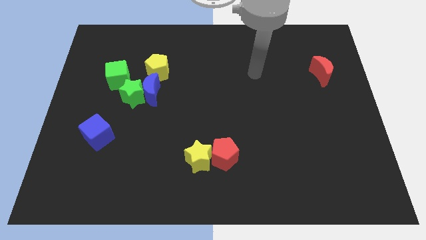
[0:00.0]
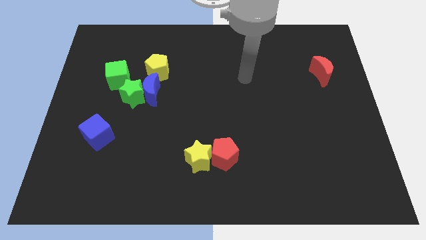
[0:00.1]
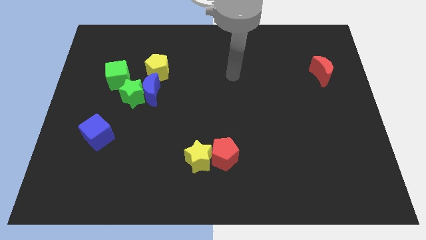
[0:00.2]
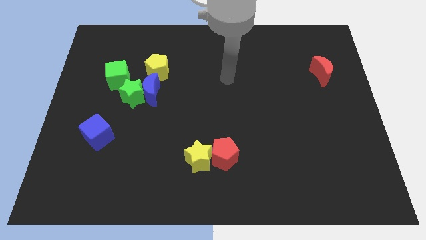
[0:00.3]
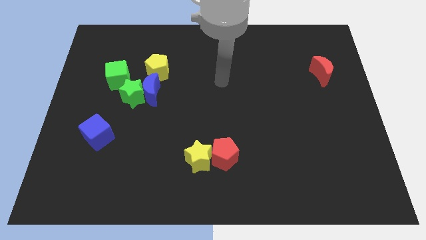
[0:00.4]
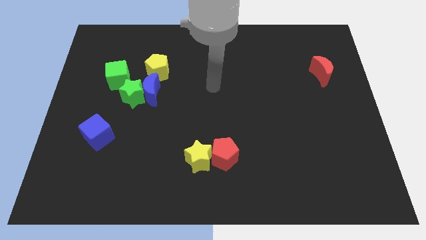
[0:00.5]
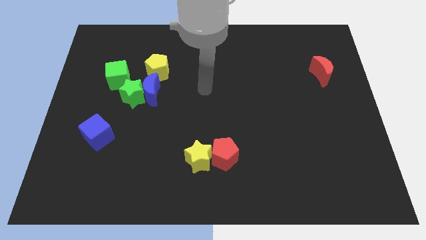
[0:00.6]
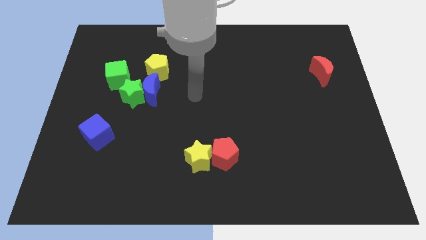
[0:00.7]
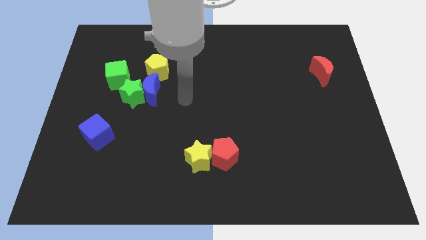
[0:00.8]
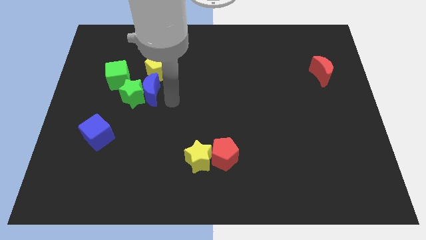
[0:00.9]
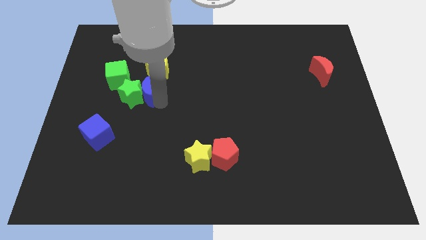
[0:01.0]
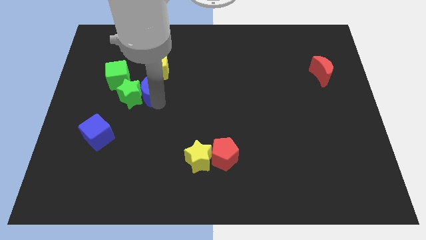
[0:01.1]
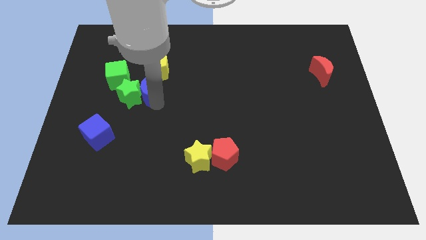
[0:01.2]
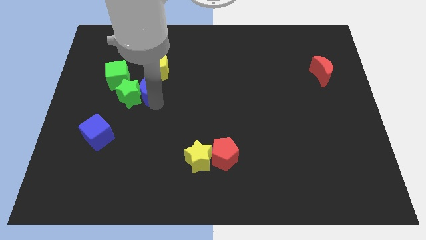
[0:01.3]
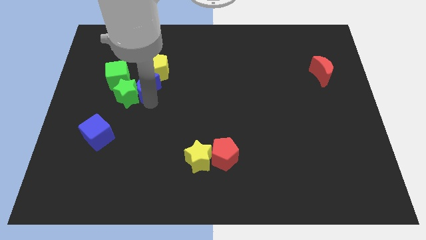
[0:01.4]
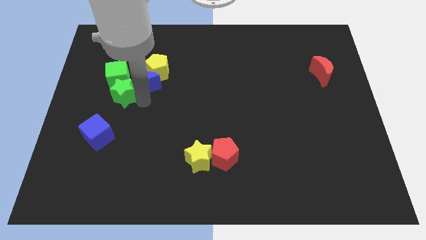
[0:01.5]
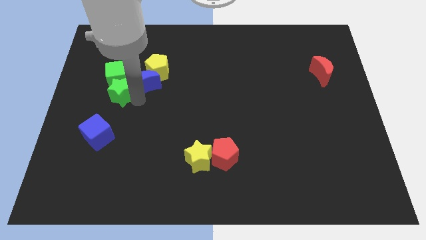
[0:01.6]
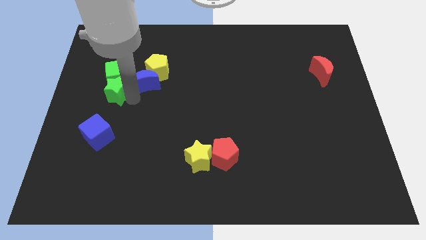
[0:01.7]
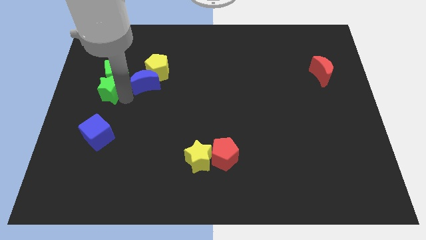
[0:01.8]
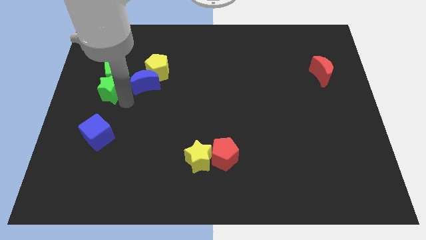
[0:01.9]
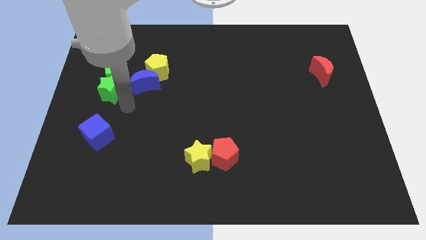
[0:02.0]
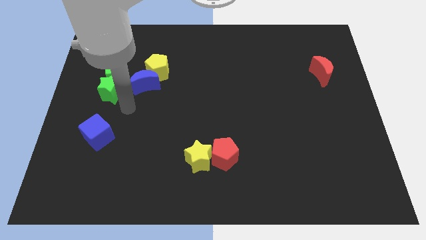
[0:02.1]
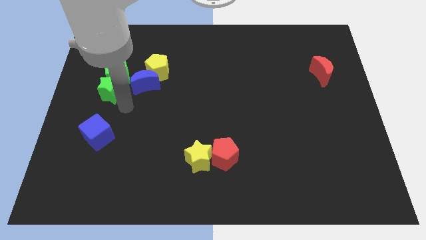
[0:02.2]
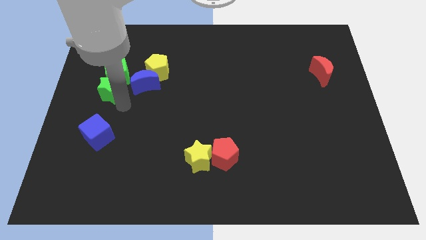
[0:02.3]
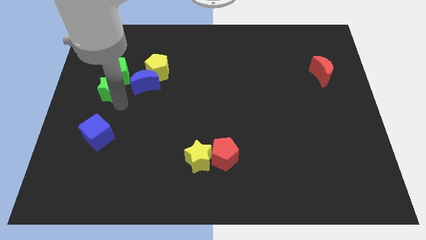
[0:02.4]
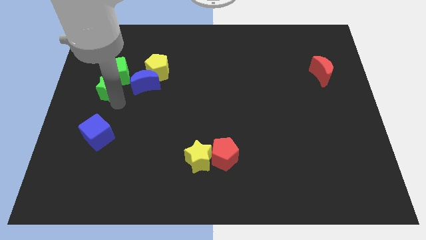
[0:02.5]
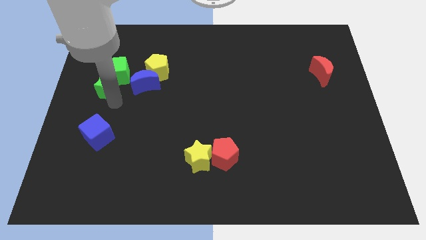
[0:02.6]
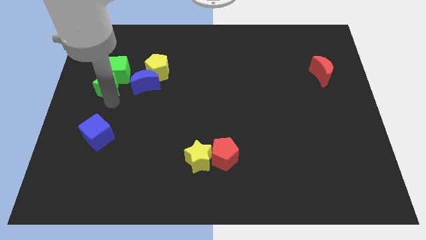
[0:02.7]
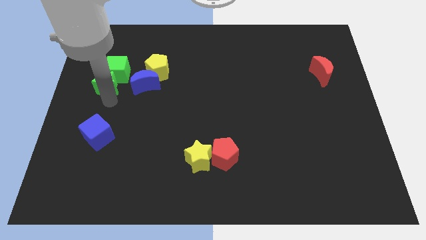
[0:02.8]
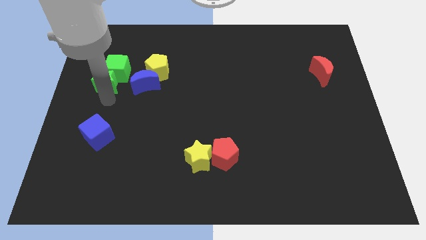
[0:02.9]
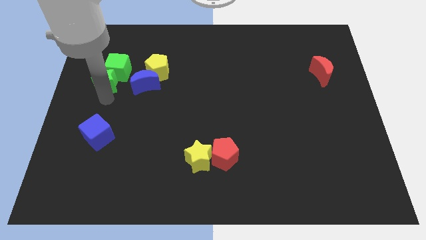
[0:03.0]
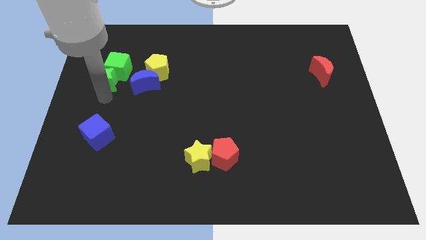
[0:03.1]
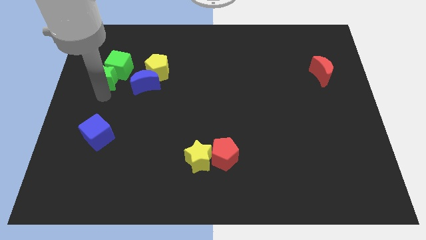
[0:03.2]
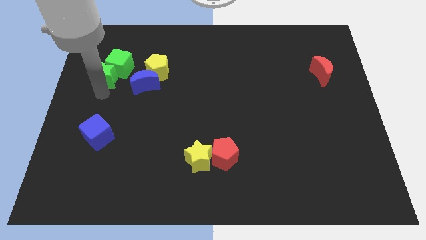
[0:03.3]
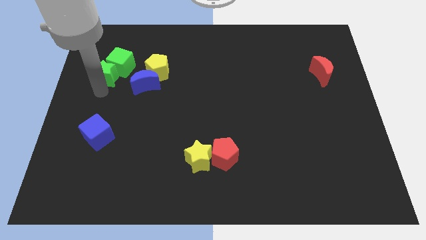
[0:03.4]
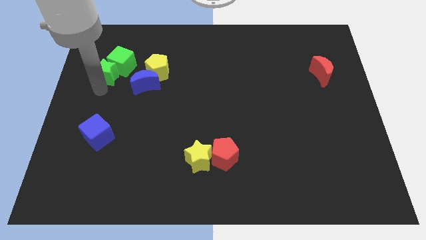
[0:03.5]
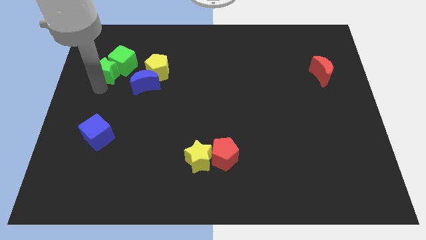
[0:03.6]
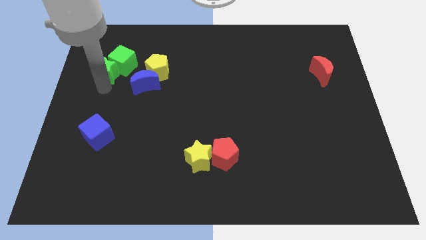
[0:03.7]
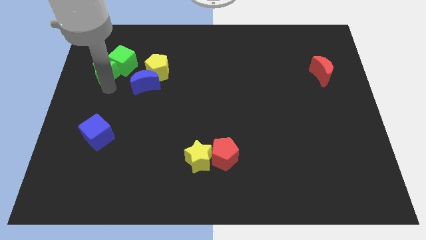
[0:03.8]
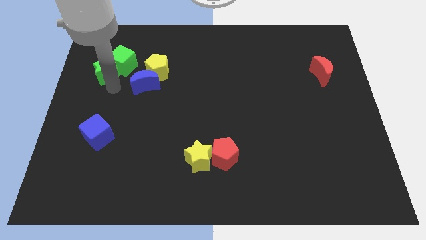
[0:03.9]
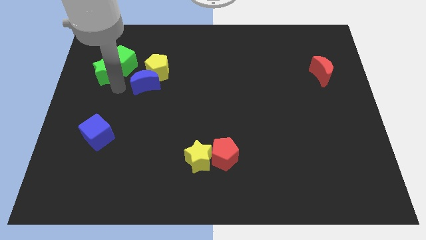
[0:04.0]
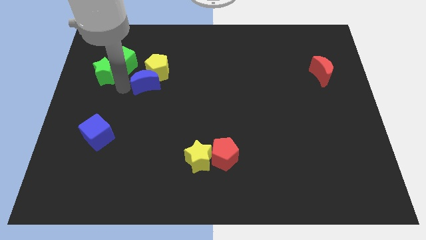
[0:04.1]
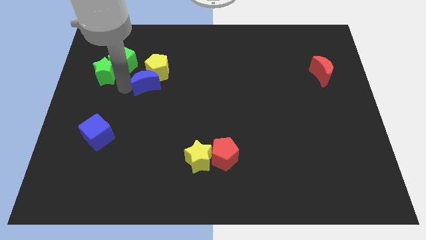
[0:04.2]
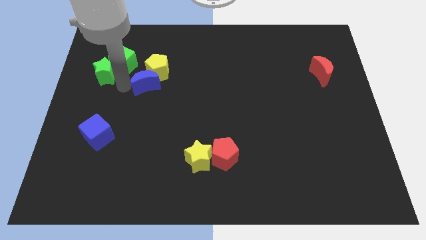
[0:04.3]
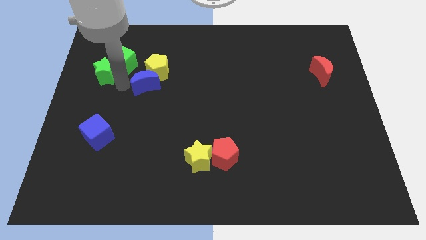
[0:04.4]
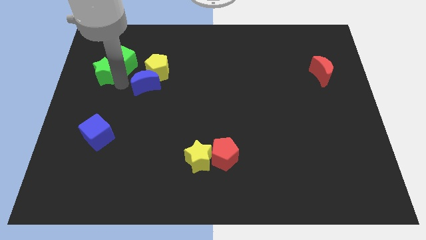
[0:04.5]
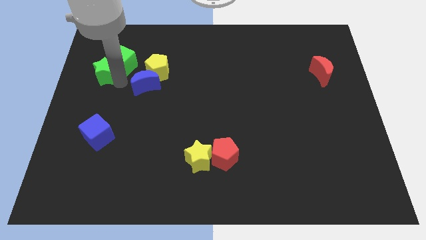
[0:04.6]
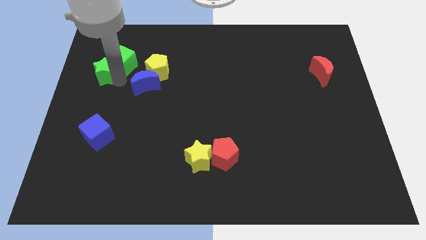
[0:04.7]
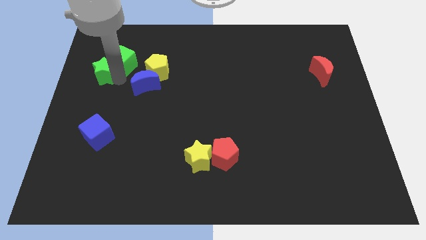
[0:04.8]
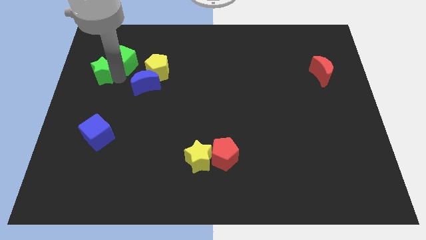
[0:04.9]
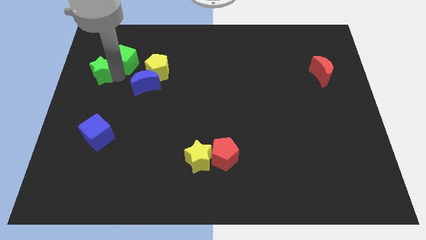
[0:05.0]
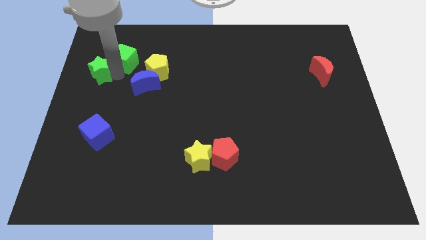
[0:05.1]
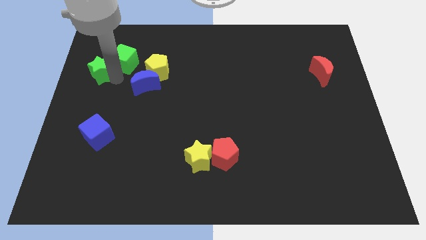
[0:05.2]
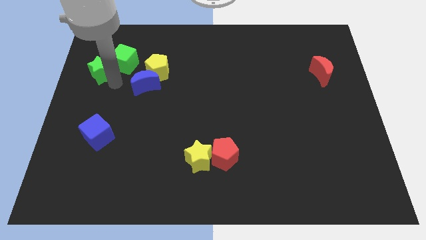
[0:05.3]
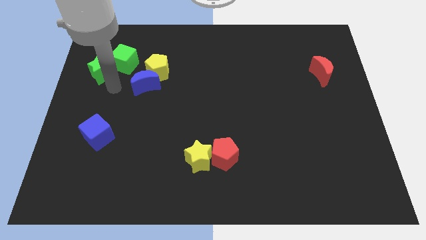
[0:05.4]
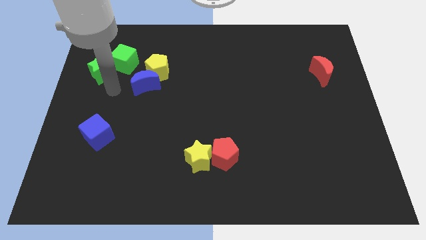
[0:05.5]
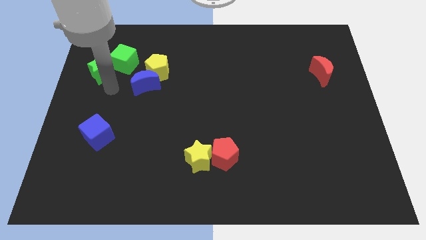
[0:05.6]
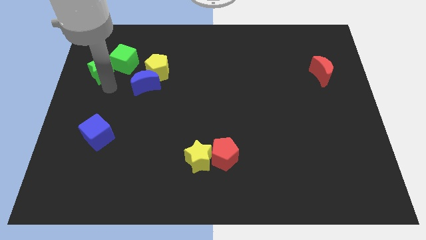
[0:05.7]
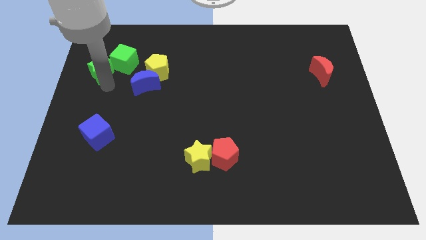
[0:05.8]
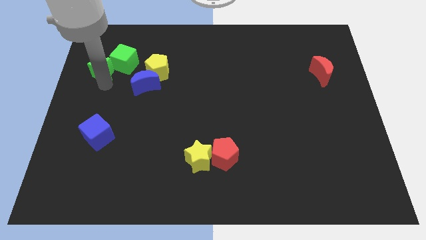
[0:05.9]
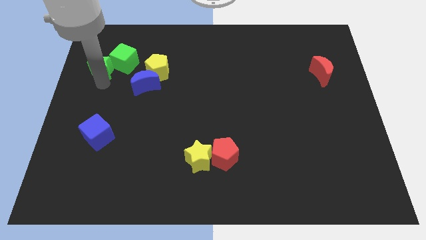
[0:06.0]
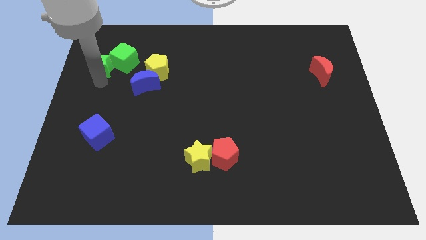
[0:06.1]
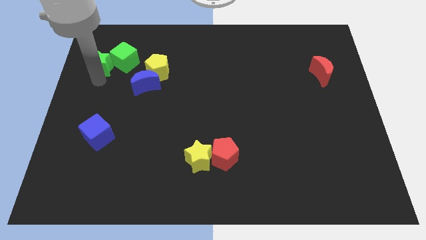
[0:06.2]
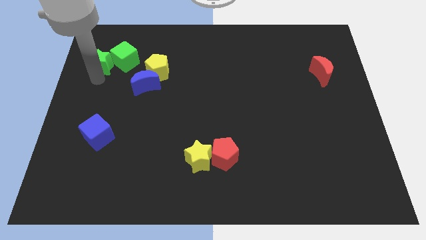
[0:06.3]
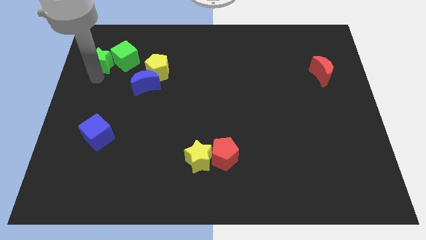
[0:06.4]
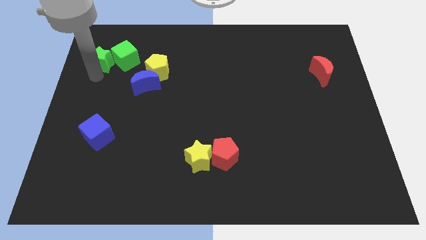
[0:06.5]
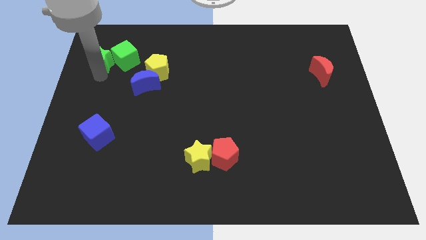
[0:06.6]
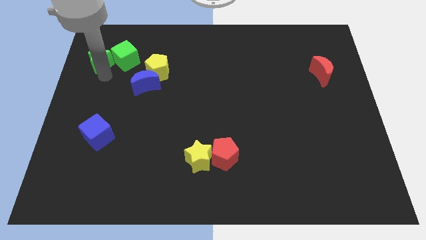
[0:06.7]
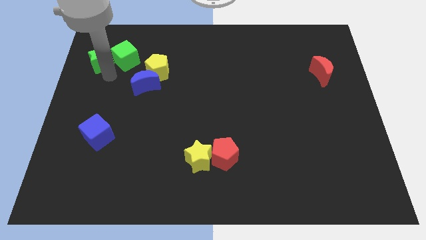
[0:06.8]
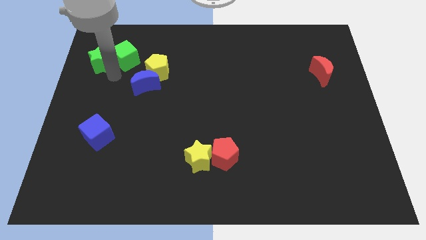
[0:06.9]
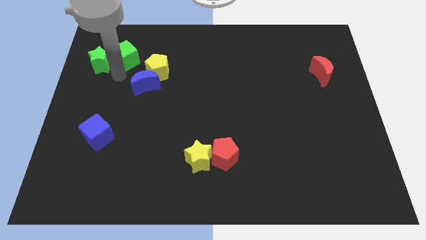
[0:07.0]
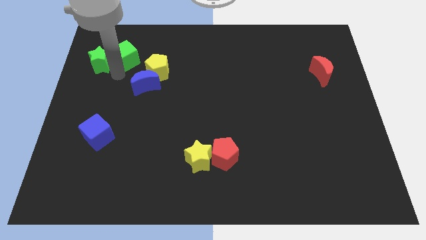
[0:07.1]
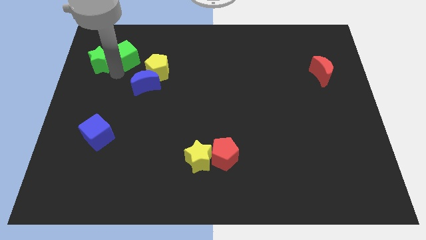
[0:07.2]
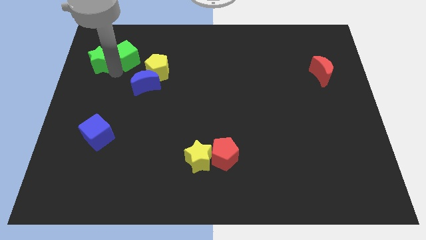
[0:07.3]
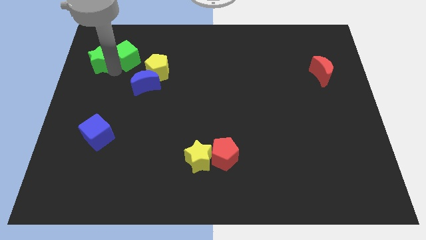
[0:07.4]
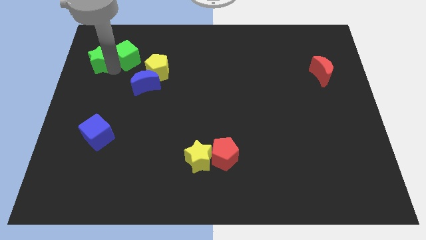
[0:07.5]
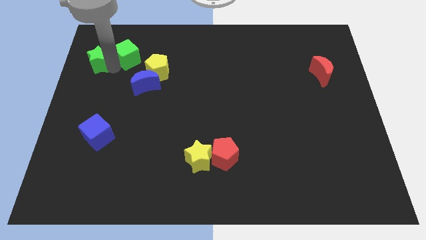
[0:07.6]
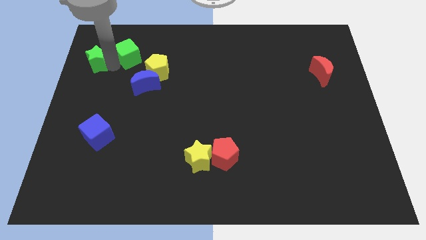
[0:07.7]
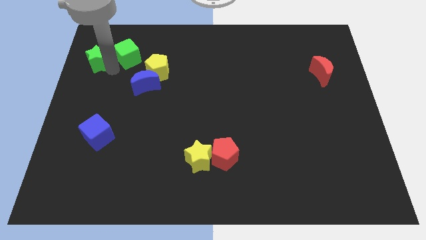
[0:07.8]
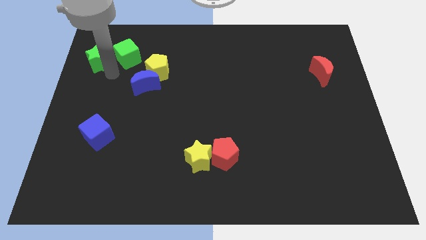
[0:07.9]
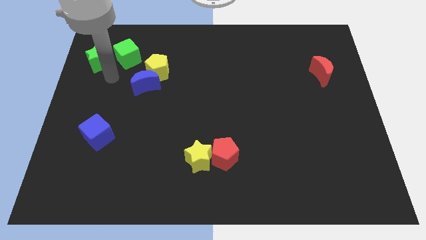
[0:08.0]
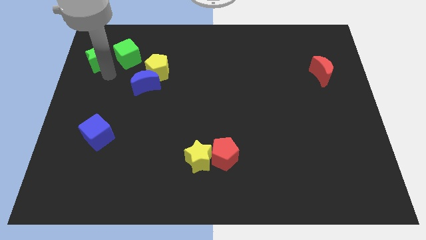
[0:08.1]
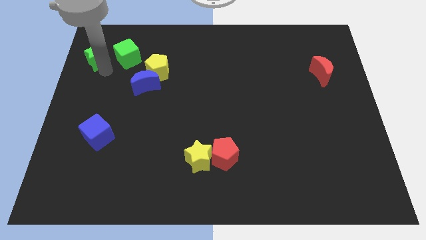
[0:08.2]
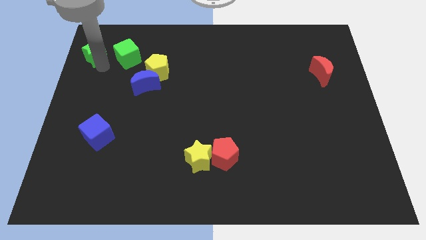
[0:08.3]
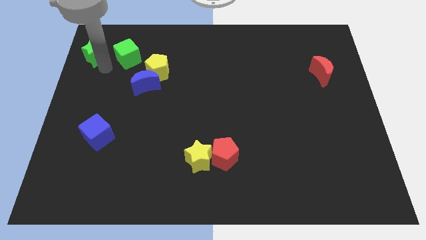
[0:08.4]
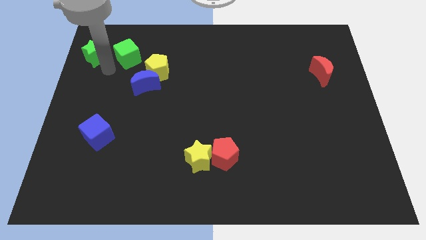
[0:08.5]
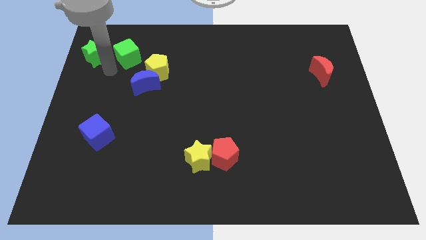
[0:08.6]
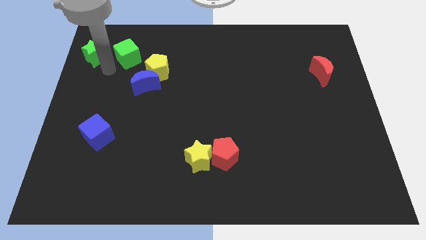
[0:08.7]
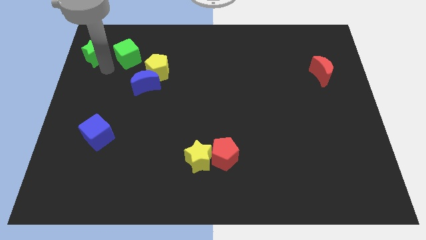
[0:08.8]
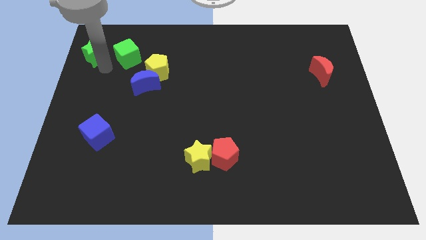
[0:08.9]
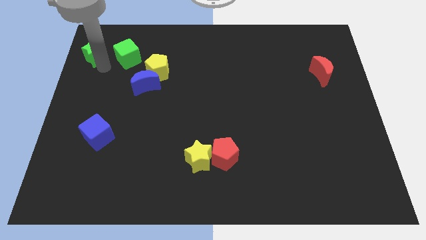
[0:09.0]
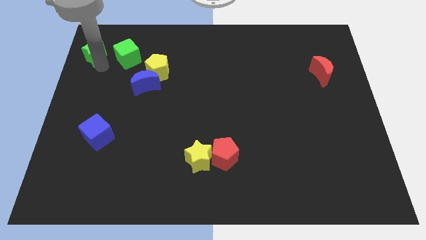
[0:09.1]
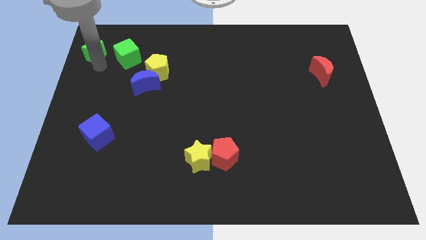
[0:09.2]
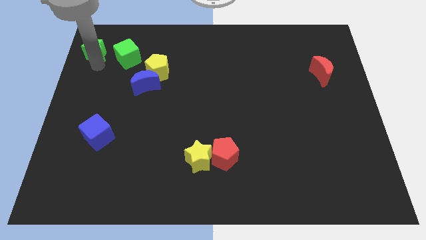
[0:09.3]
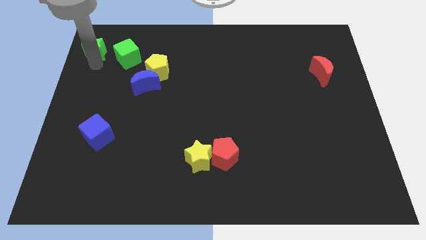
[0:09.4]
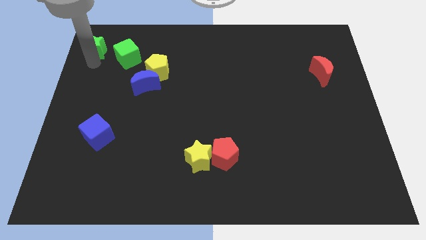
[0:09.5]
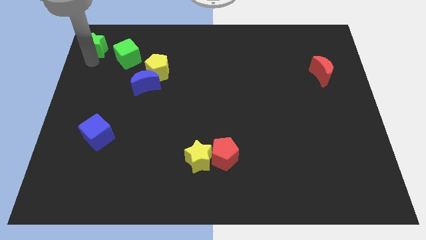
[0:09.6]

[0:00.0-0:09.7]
push the green star to the upper left corner
